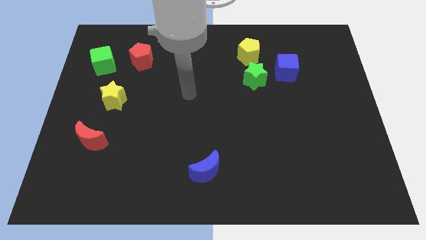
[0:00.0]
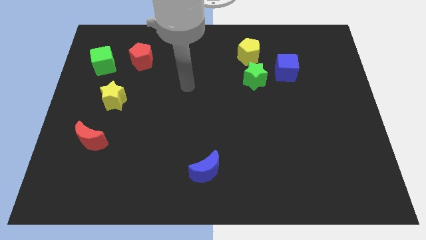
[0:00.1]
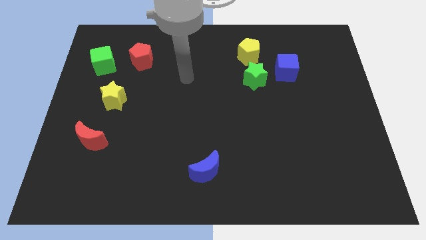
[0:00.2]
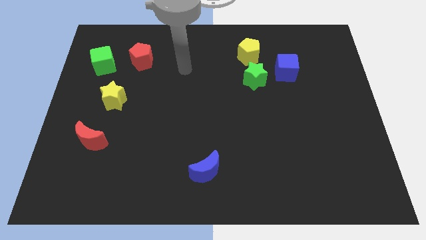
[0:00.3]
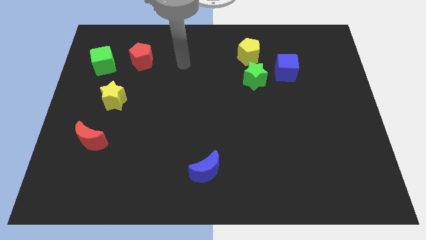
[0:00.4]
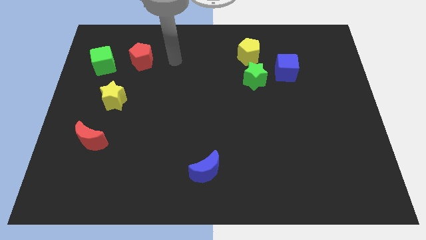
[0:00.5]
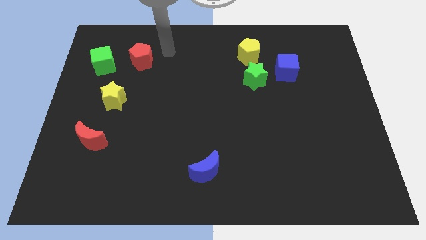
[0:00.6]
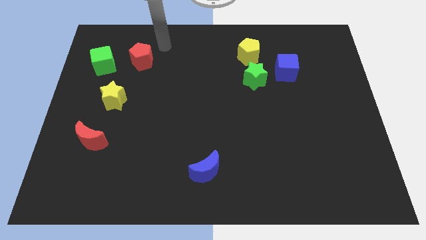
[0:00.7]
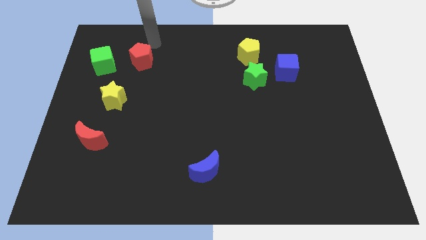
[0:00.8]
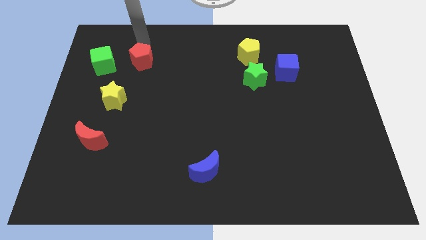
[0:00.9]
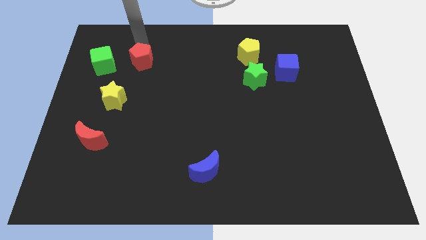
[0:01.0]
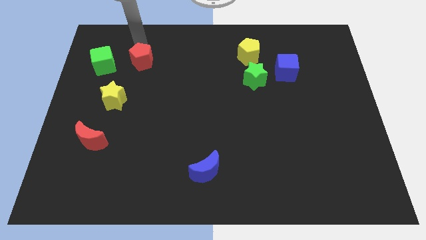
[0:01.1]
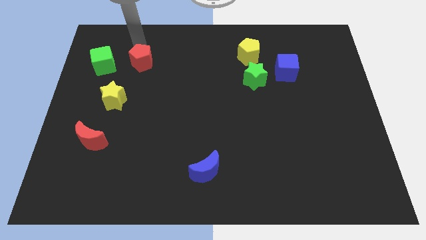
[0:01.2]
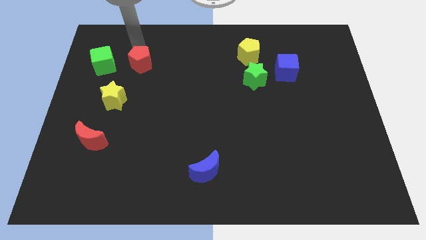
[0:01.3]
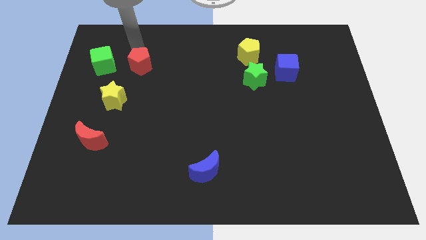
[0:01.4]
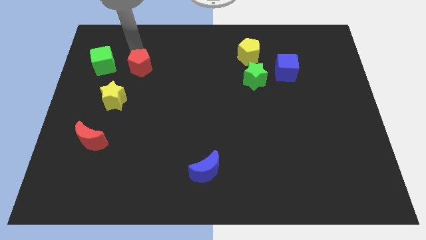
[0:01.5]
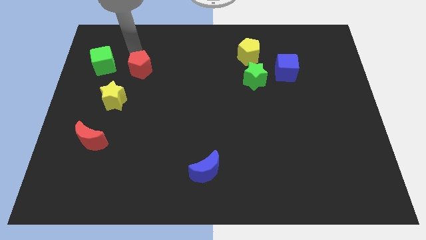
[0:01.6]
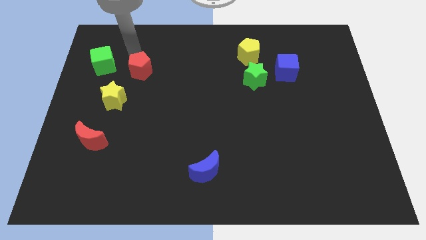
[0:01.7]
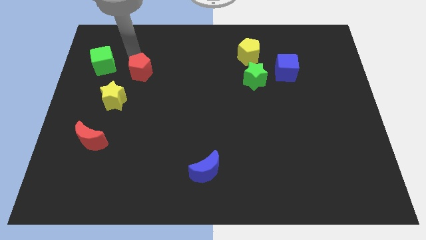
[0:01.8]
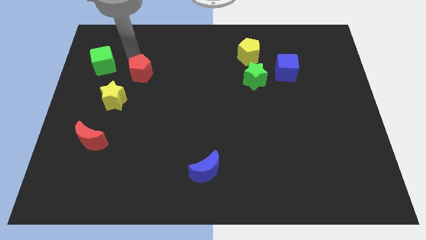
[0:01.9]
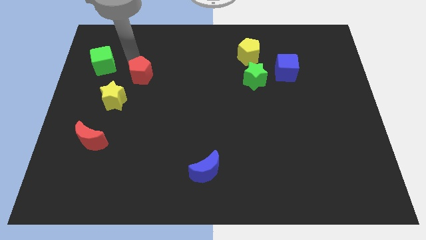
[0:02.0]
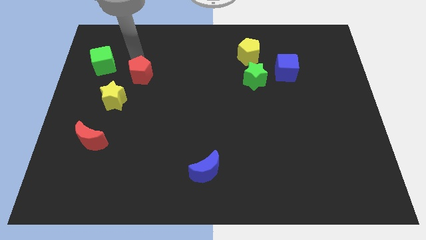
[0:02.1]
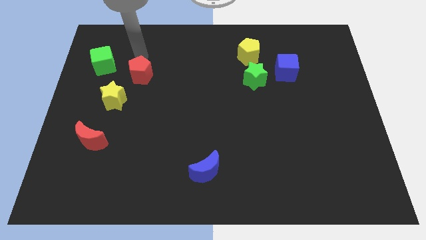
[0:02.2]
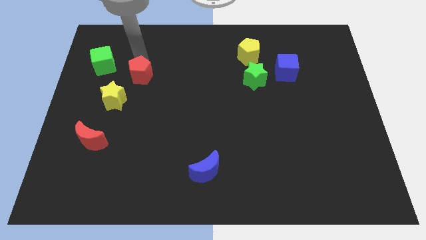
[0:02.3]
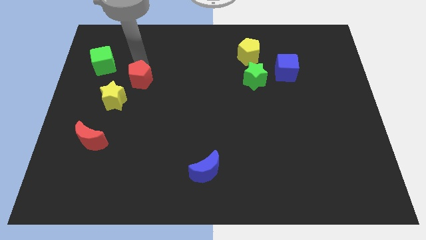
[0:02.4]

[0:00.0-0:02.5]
slide the red pentagon down somewhat

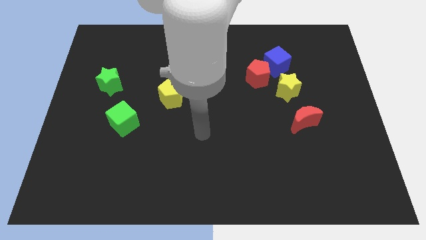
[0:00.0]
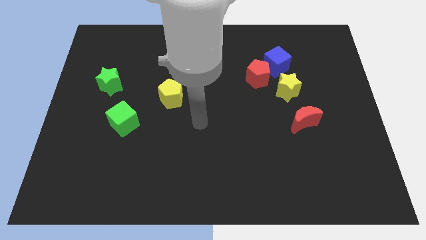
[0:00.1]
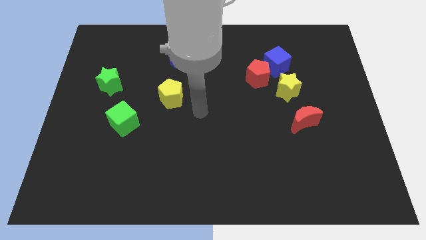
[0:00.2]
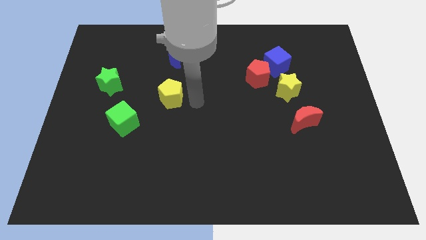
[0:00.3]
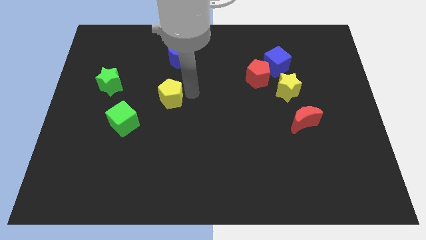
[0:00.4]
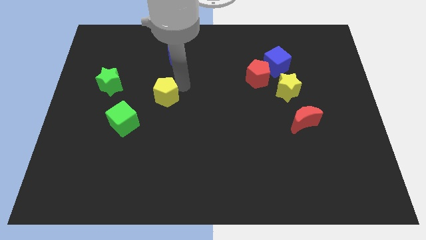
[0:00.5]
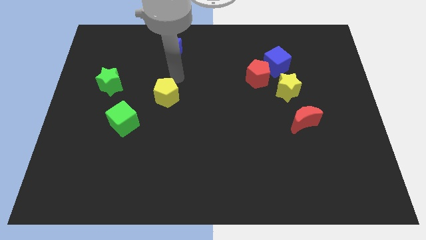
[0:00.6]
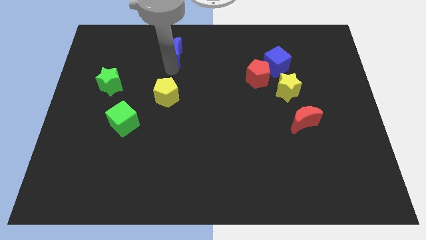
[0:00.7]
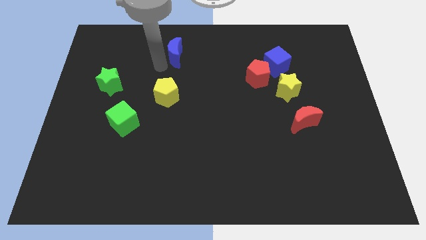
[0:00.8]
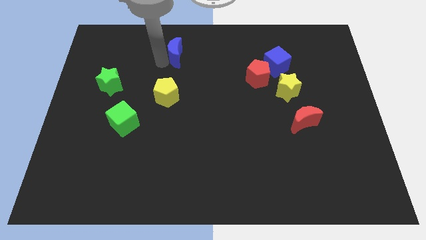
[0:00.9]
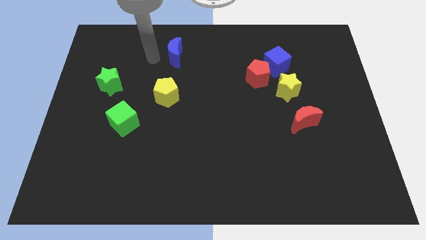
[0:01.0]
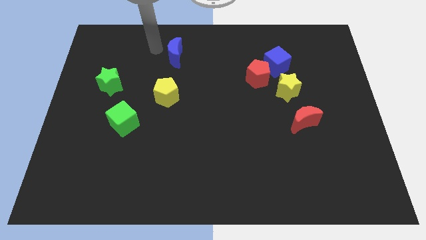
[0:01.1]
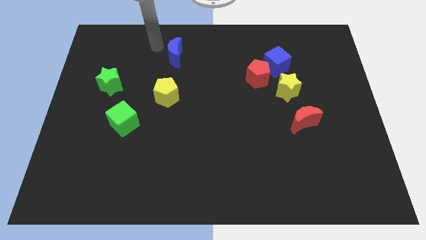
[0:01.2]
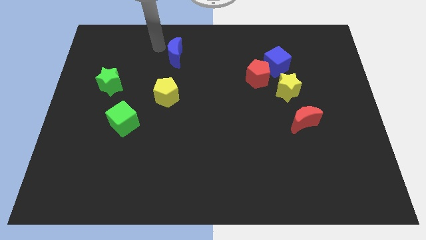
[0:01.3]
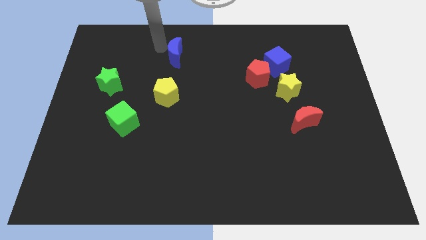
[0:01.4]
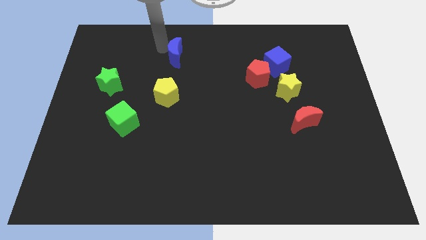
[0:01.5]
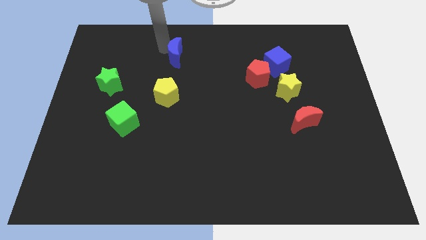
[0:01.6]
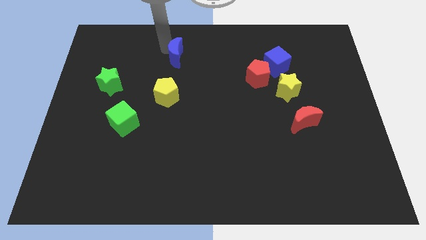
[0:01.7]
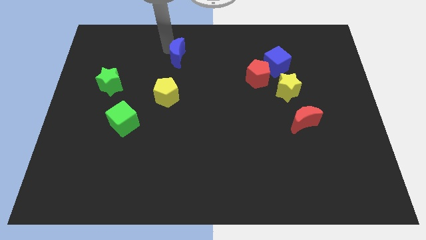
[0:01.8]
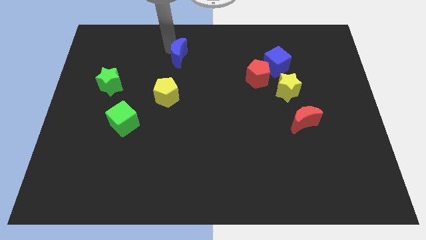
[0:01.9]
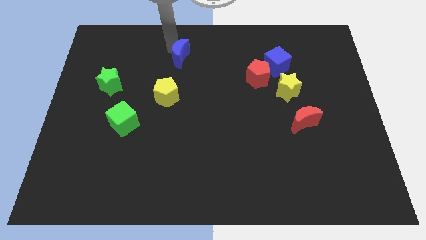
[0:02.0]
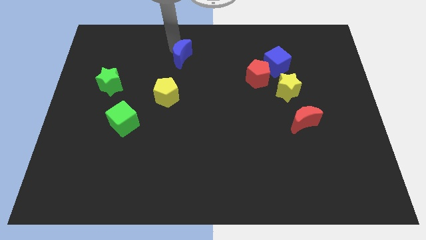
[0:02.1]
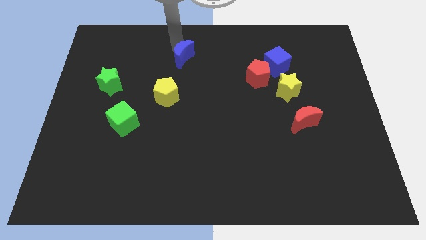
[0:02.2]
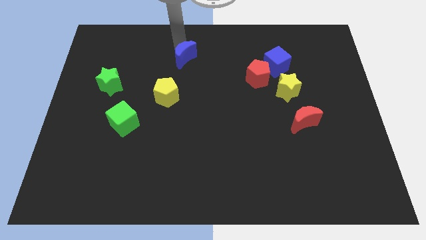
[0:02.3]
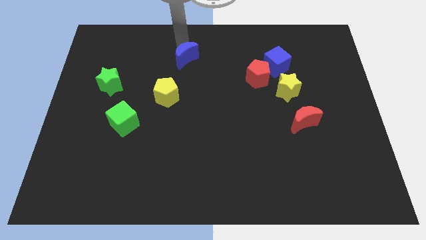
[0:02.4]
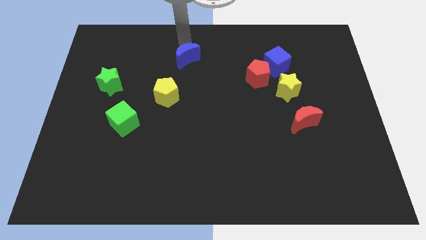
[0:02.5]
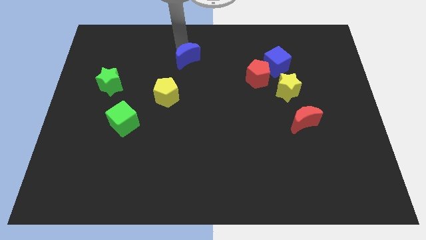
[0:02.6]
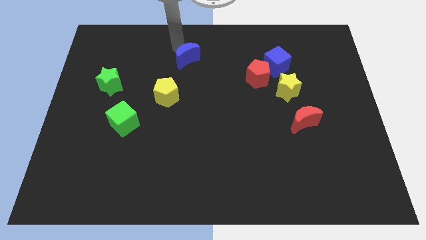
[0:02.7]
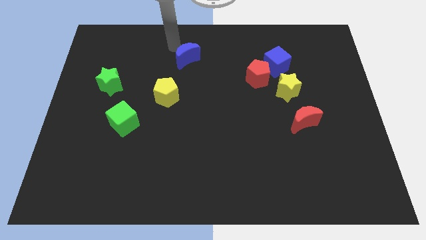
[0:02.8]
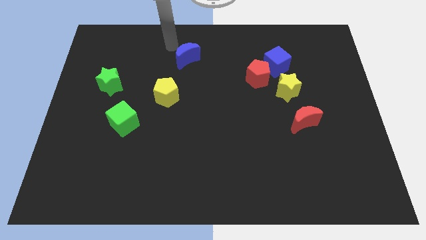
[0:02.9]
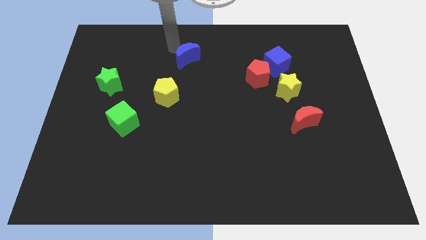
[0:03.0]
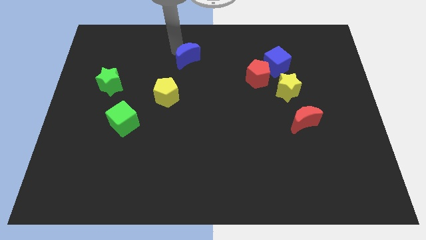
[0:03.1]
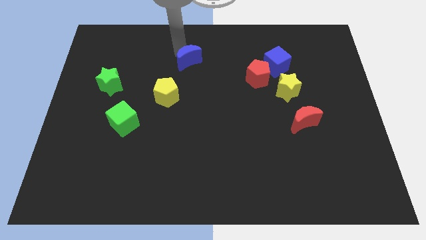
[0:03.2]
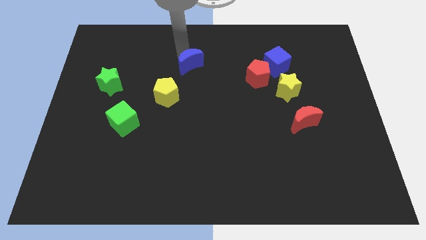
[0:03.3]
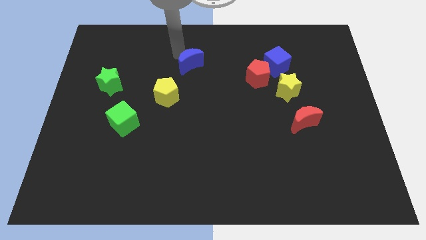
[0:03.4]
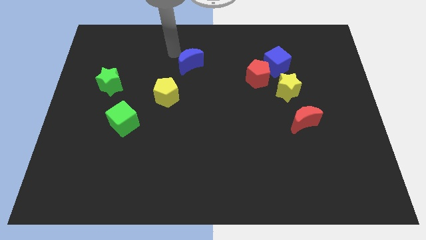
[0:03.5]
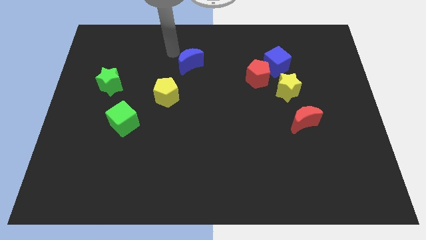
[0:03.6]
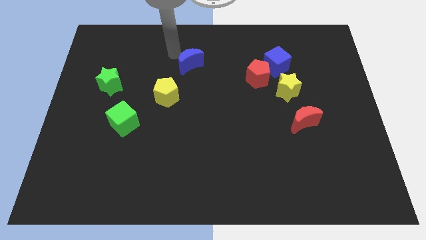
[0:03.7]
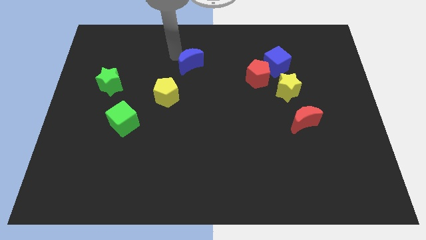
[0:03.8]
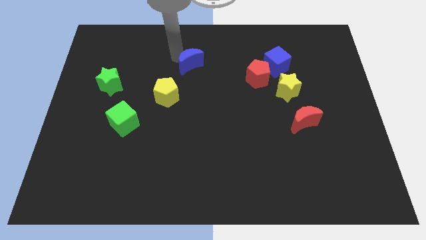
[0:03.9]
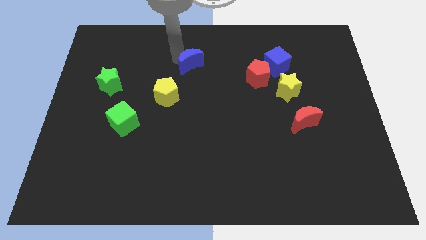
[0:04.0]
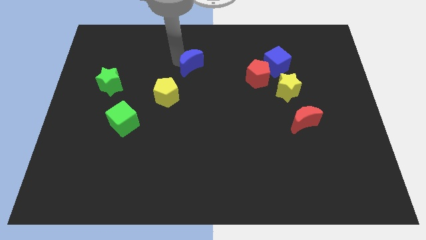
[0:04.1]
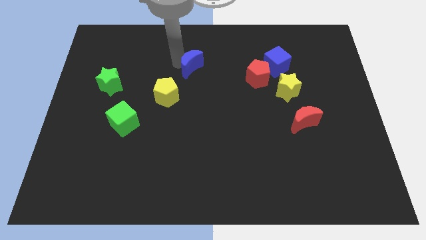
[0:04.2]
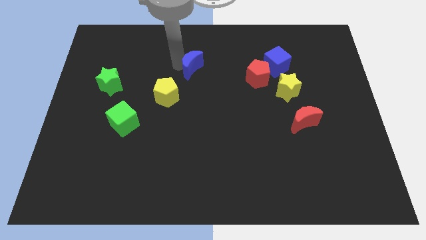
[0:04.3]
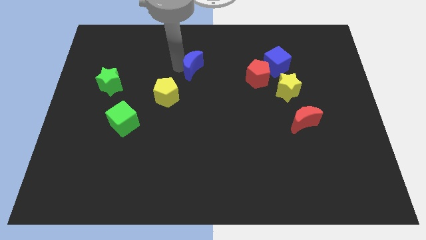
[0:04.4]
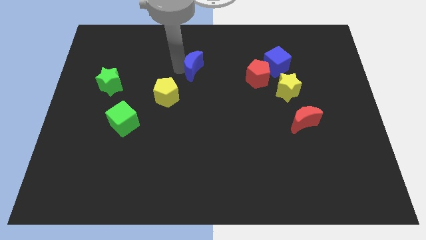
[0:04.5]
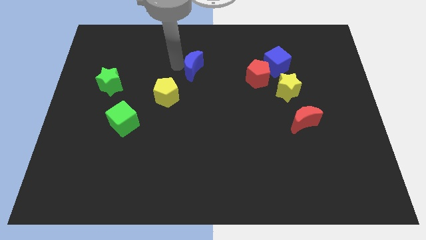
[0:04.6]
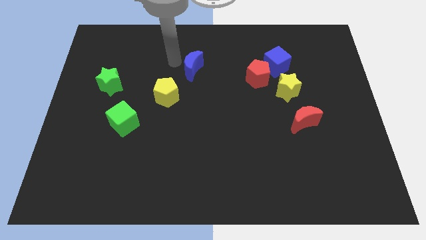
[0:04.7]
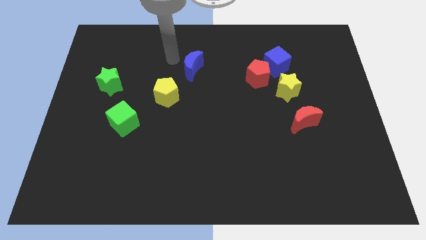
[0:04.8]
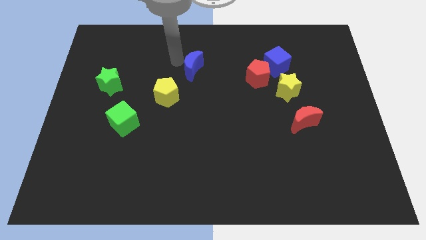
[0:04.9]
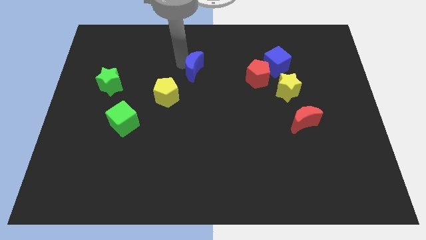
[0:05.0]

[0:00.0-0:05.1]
slightly slide the blue moon down and to the right

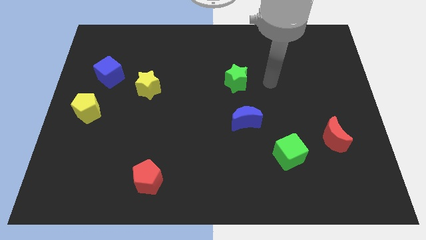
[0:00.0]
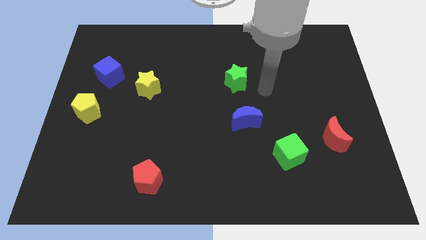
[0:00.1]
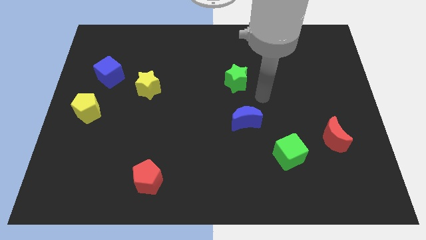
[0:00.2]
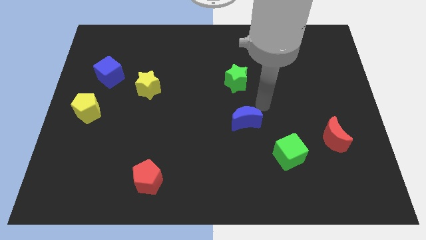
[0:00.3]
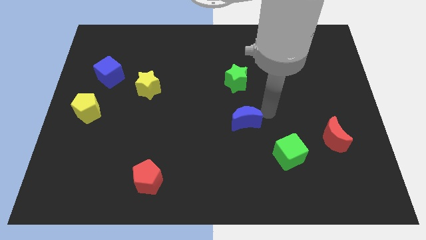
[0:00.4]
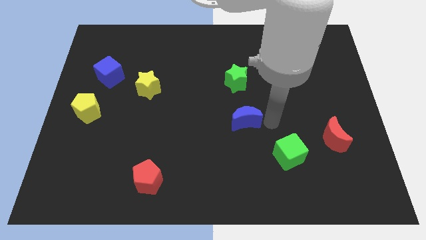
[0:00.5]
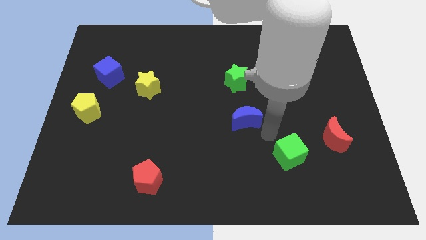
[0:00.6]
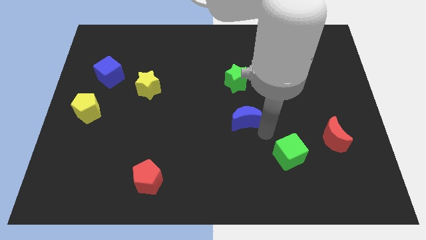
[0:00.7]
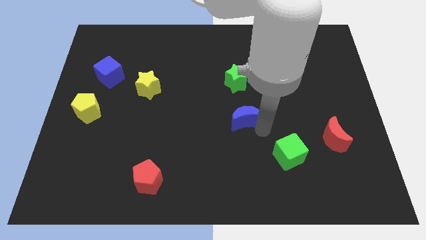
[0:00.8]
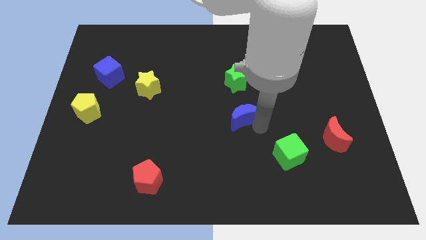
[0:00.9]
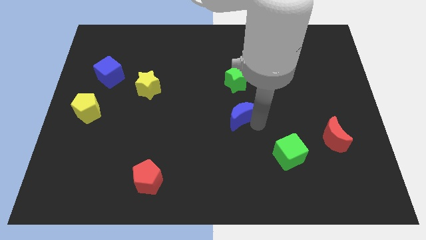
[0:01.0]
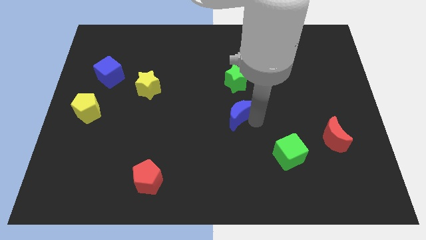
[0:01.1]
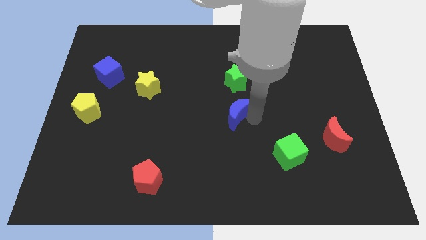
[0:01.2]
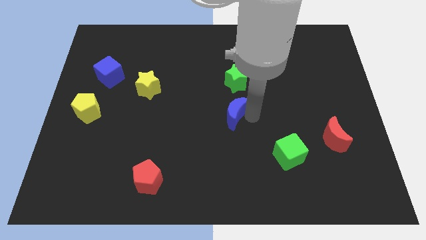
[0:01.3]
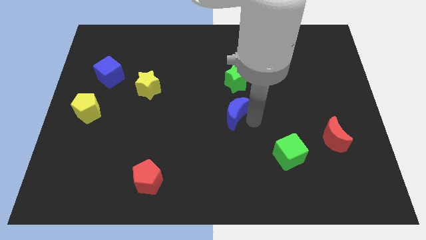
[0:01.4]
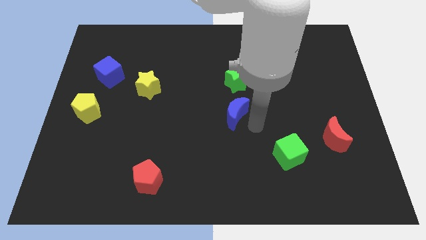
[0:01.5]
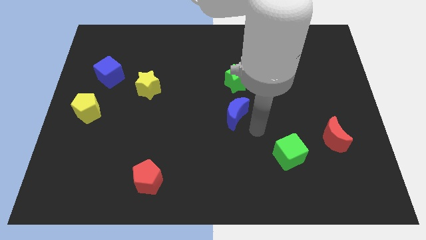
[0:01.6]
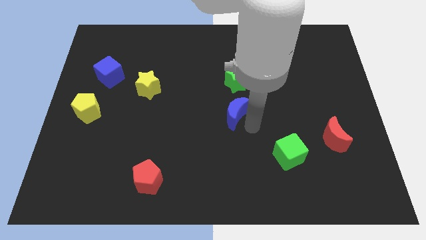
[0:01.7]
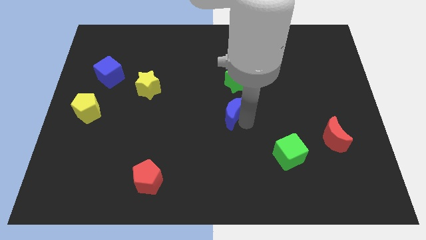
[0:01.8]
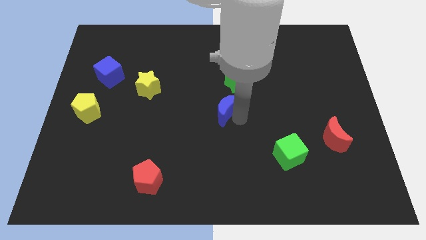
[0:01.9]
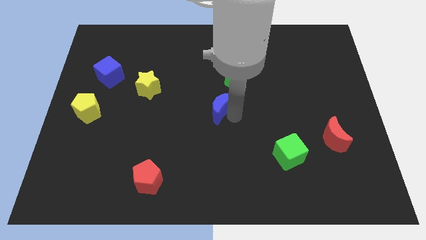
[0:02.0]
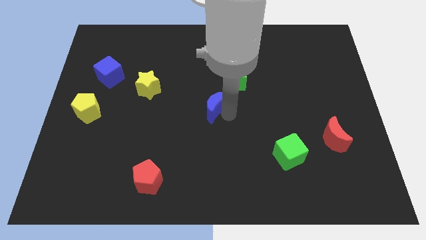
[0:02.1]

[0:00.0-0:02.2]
move the blue moon up and left a bit
